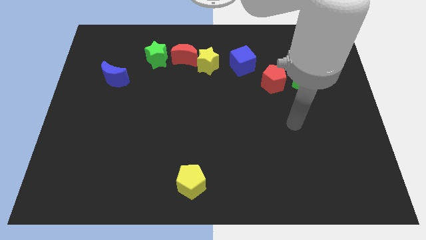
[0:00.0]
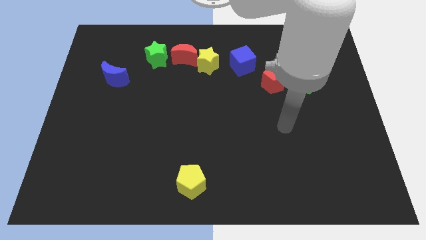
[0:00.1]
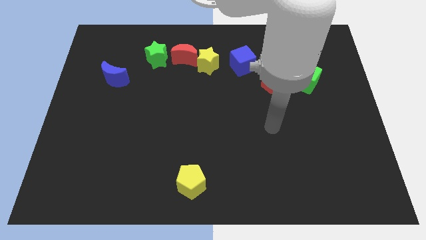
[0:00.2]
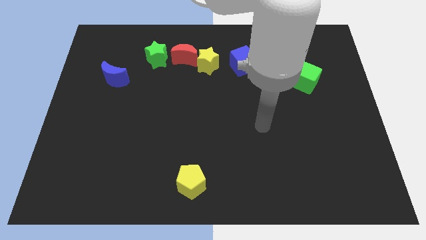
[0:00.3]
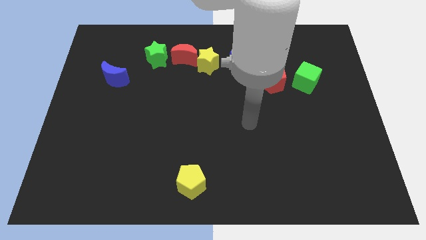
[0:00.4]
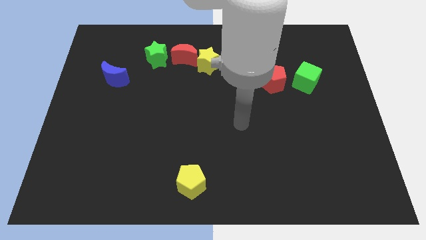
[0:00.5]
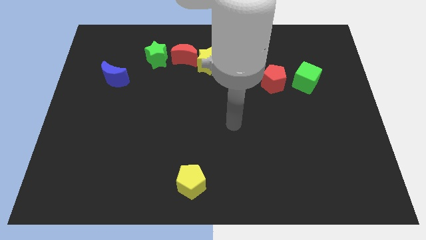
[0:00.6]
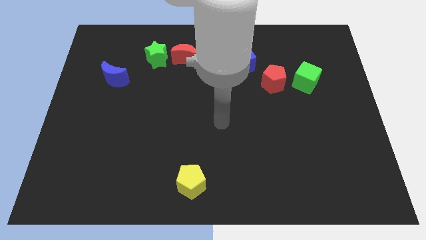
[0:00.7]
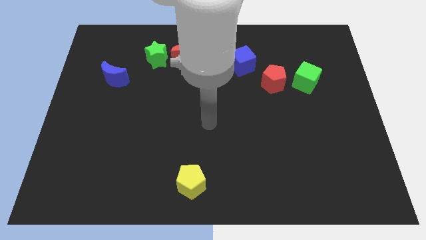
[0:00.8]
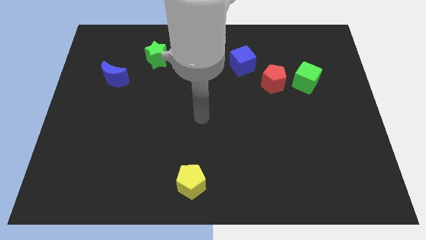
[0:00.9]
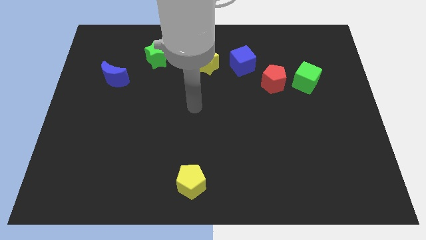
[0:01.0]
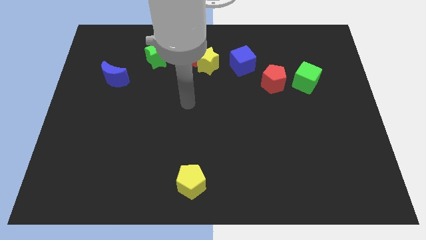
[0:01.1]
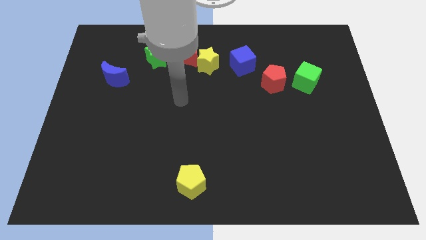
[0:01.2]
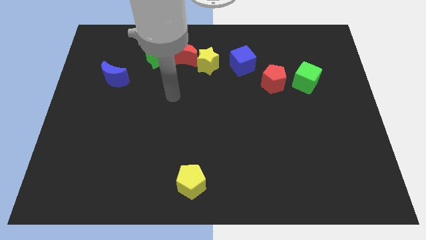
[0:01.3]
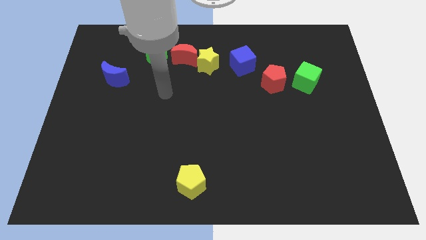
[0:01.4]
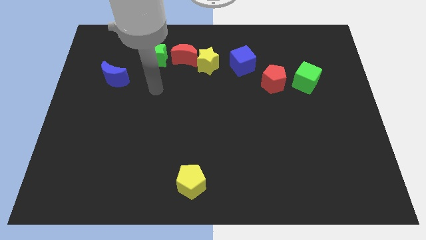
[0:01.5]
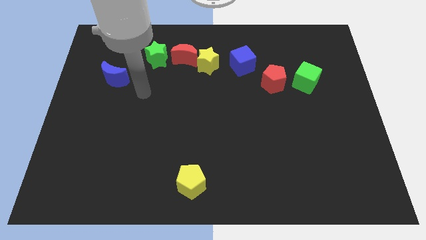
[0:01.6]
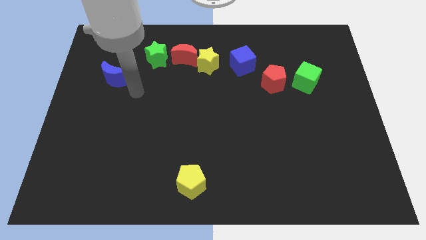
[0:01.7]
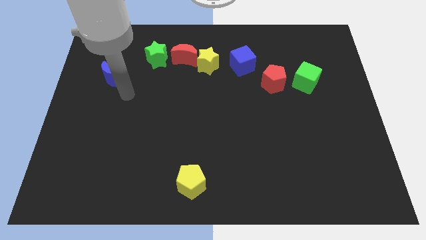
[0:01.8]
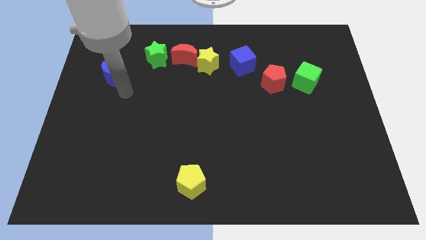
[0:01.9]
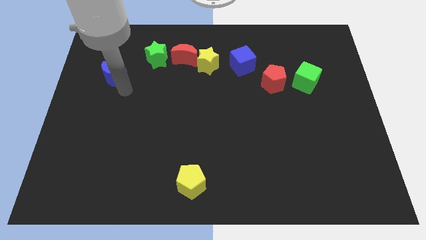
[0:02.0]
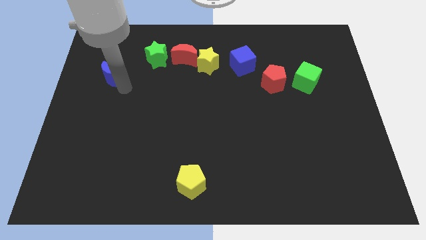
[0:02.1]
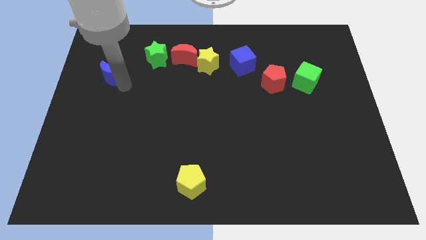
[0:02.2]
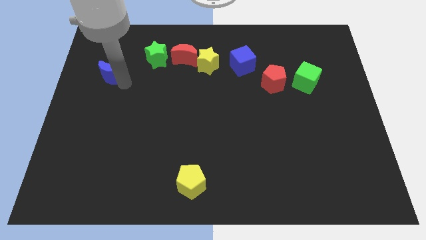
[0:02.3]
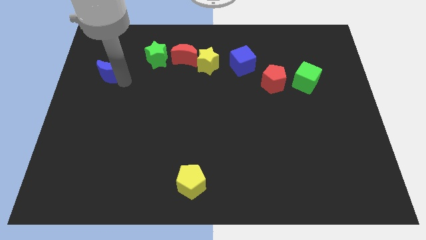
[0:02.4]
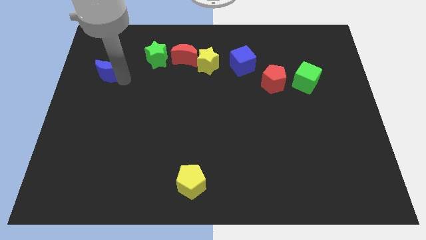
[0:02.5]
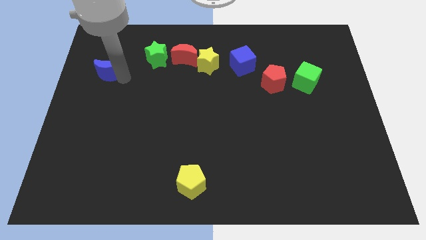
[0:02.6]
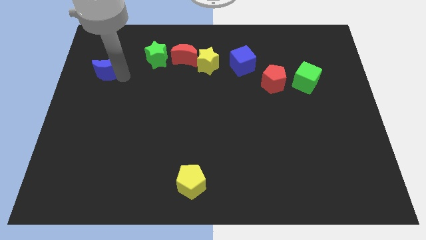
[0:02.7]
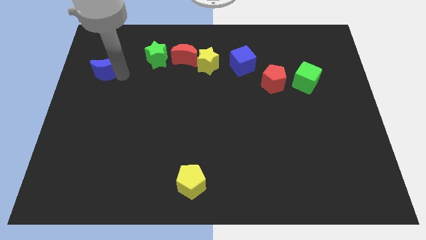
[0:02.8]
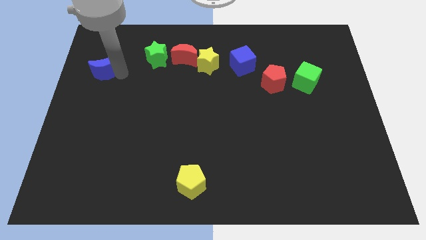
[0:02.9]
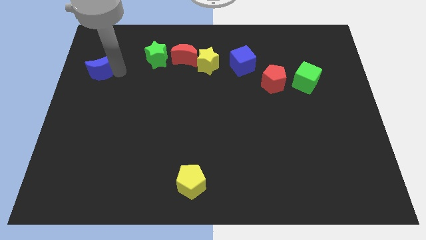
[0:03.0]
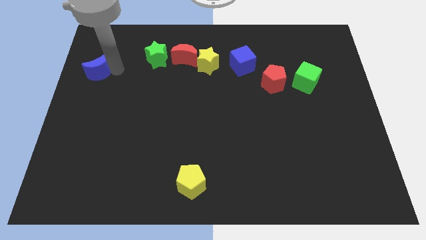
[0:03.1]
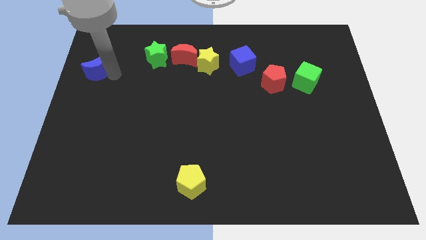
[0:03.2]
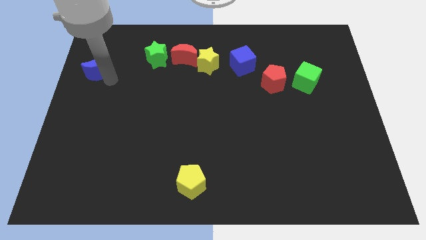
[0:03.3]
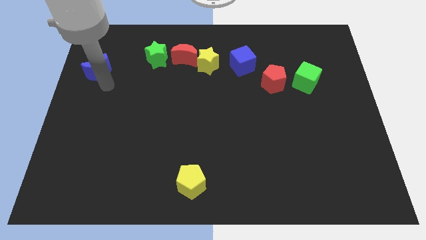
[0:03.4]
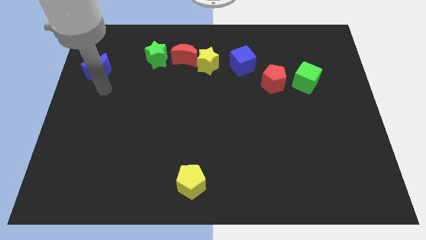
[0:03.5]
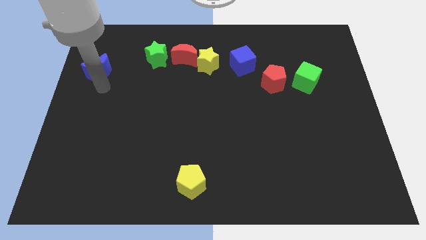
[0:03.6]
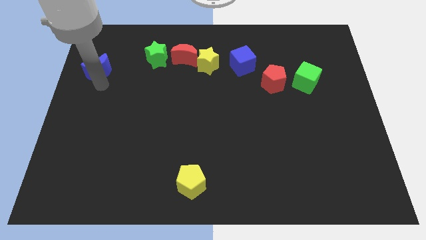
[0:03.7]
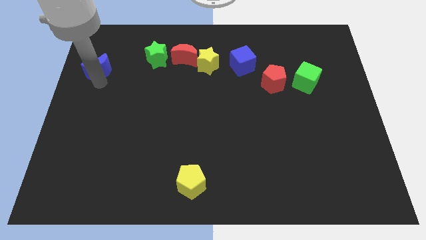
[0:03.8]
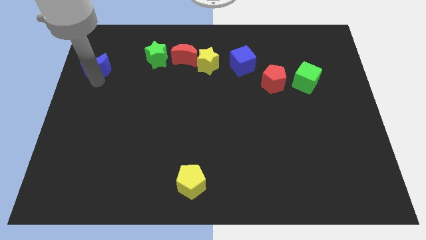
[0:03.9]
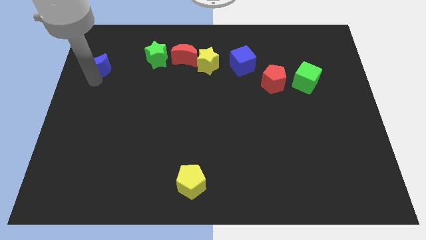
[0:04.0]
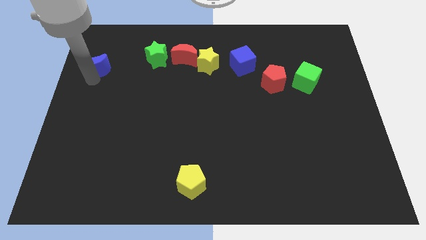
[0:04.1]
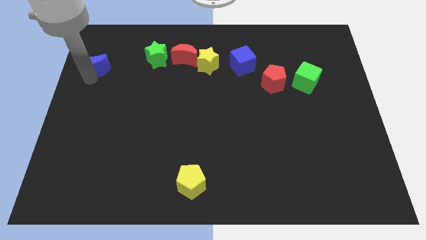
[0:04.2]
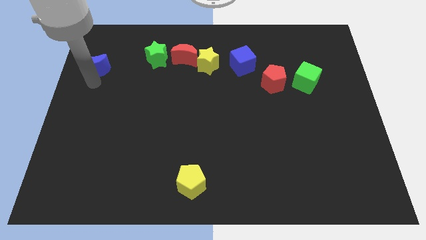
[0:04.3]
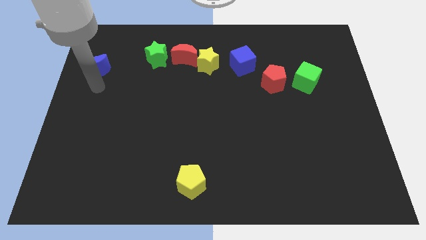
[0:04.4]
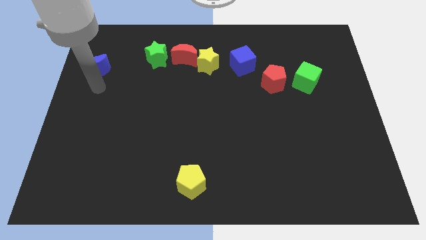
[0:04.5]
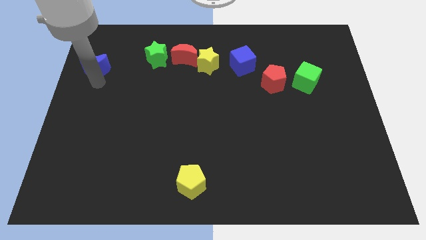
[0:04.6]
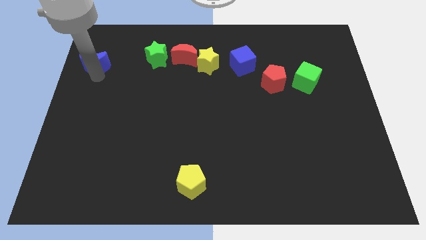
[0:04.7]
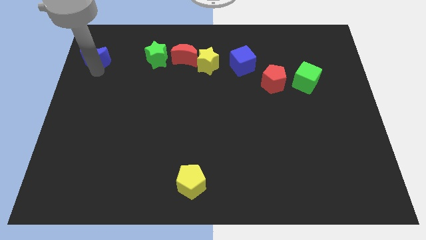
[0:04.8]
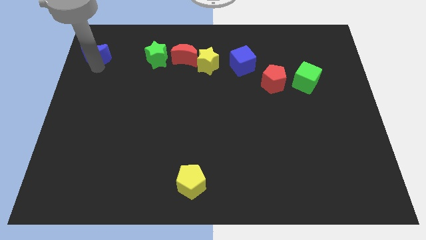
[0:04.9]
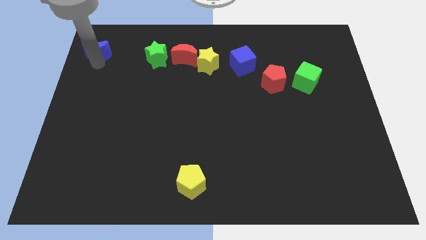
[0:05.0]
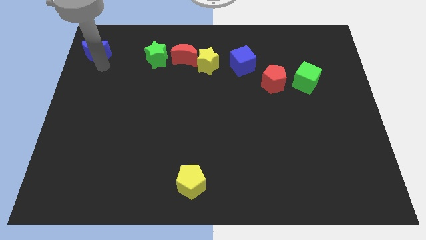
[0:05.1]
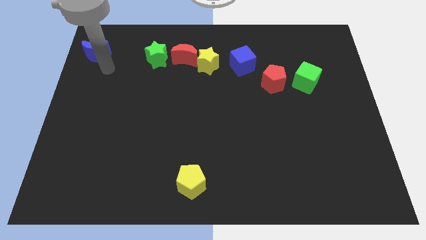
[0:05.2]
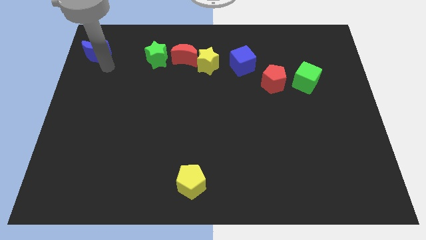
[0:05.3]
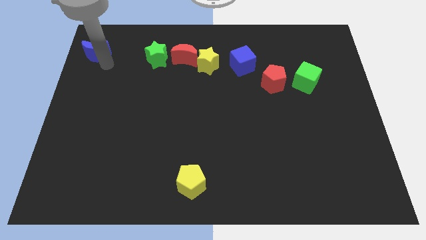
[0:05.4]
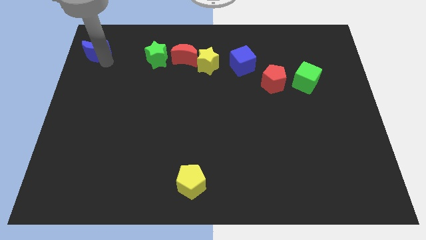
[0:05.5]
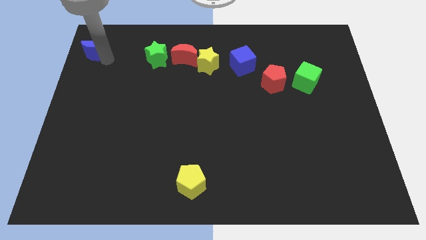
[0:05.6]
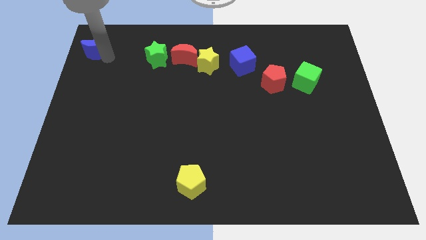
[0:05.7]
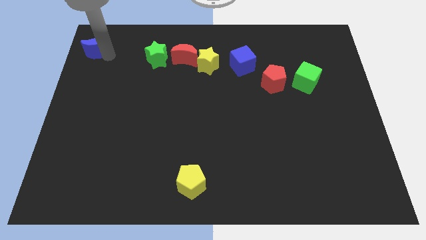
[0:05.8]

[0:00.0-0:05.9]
move the blue moon to the upper left corner

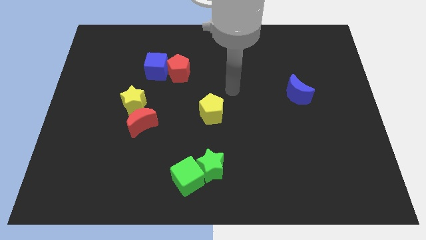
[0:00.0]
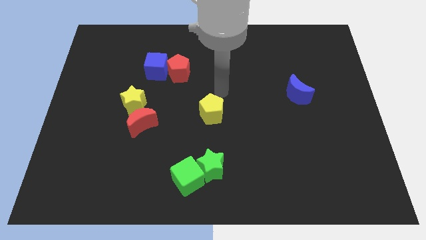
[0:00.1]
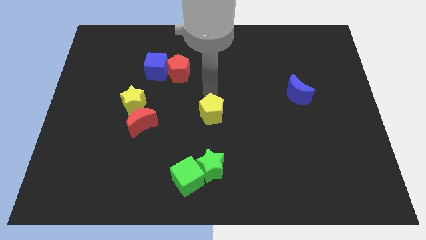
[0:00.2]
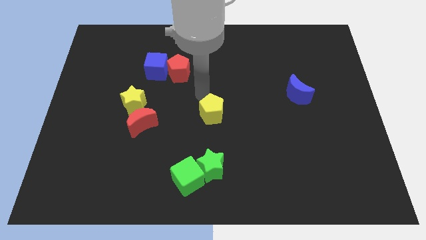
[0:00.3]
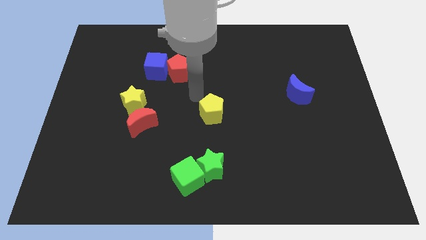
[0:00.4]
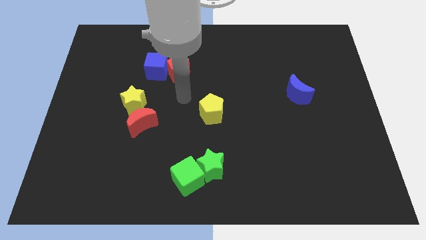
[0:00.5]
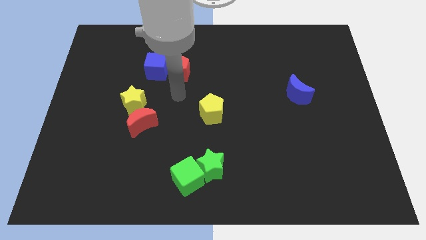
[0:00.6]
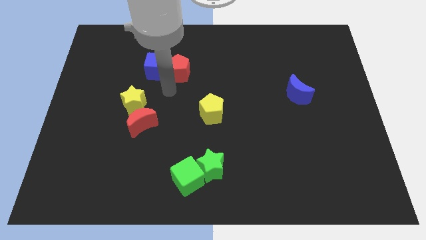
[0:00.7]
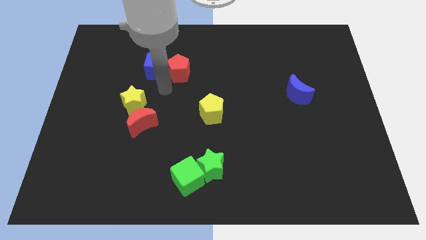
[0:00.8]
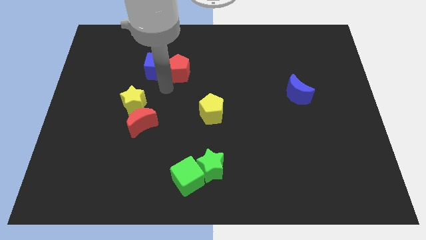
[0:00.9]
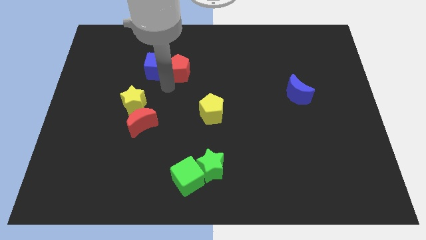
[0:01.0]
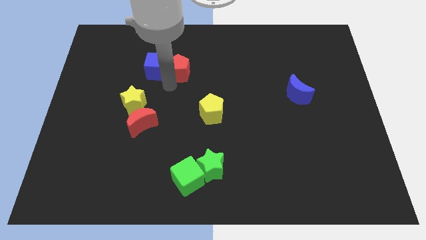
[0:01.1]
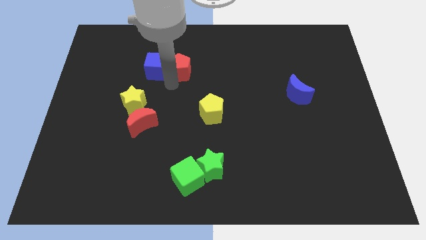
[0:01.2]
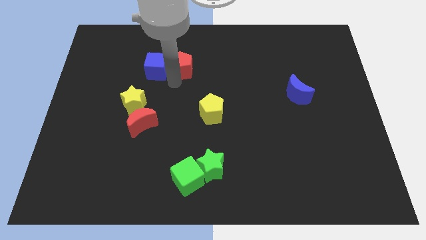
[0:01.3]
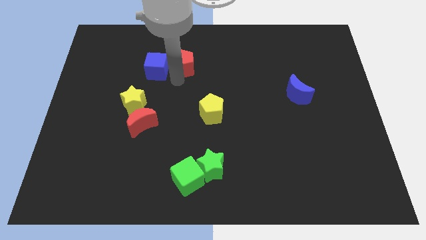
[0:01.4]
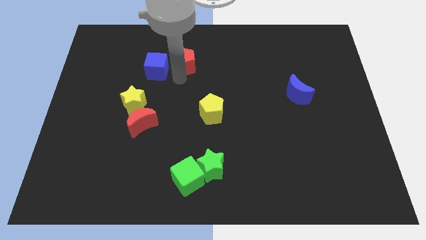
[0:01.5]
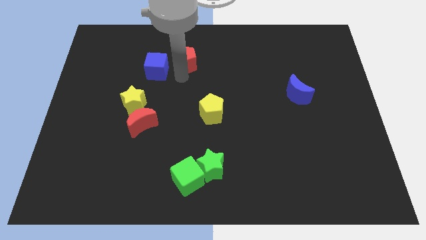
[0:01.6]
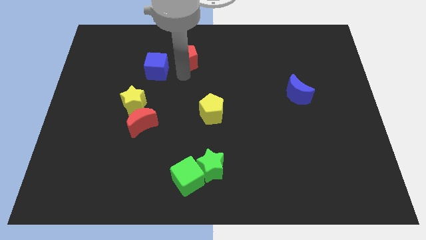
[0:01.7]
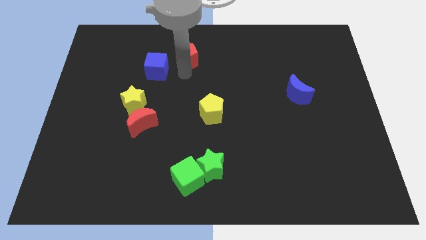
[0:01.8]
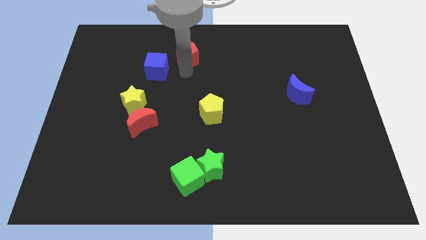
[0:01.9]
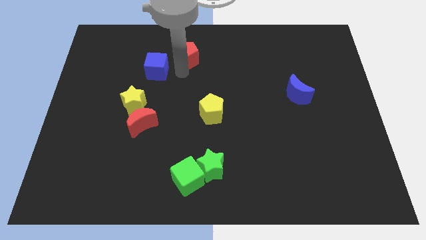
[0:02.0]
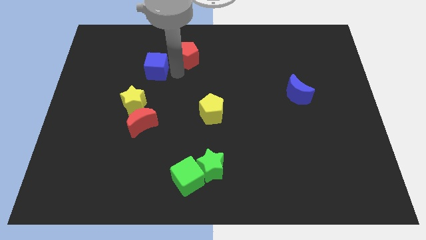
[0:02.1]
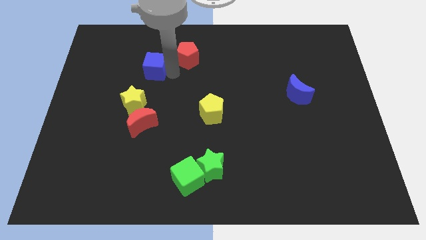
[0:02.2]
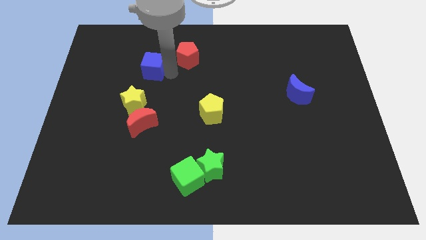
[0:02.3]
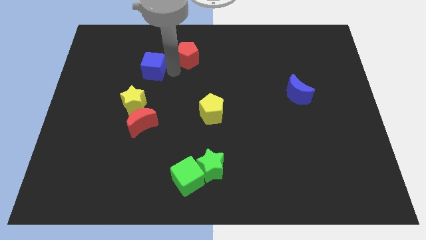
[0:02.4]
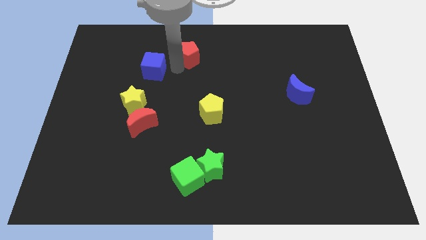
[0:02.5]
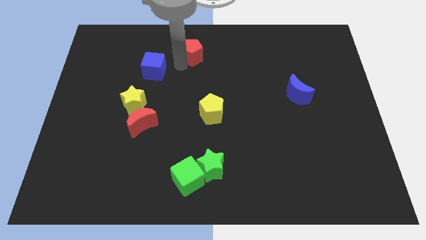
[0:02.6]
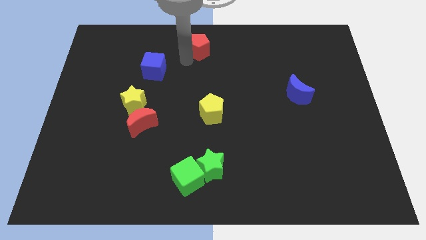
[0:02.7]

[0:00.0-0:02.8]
slide the red pentagon to the top
